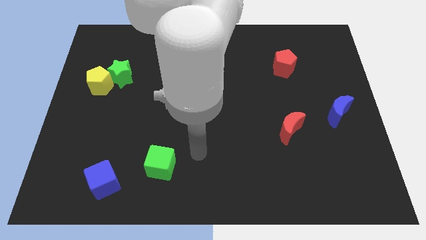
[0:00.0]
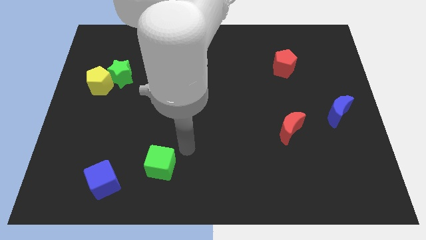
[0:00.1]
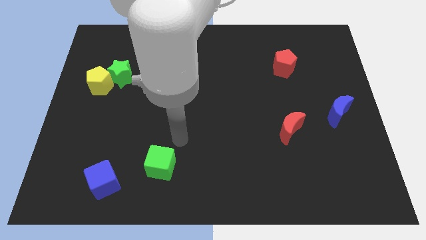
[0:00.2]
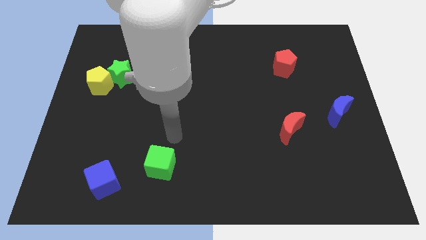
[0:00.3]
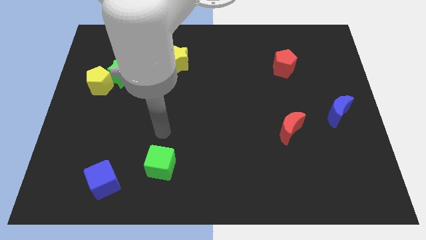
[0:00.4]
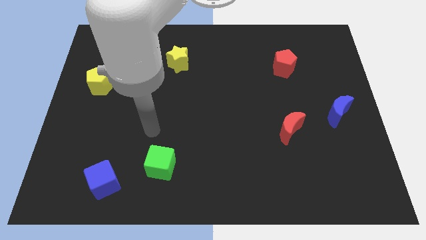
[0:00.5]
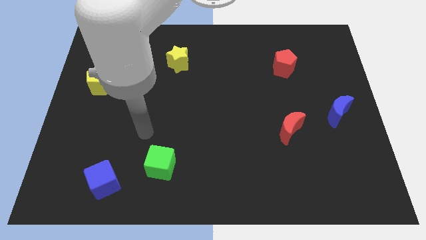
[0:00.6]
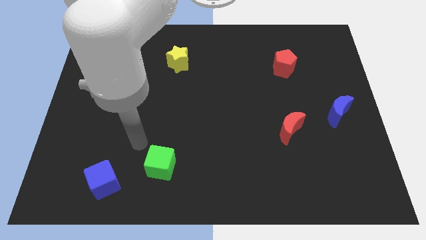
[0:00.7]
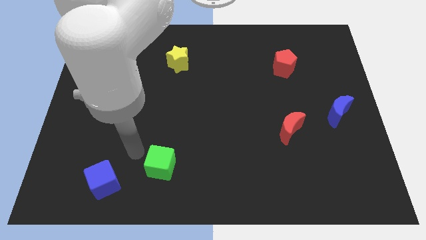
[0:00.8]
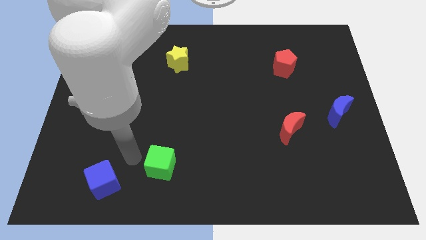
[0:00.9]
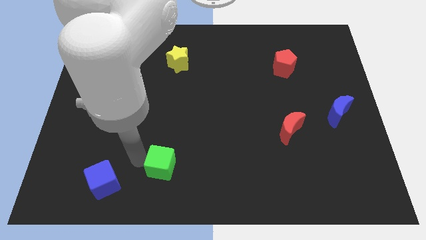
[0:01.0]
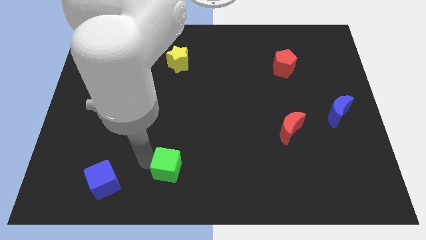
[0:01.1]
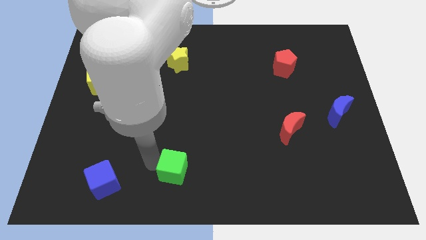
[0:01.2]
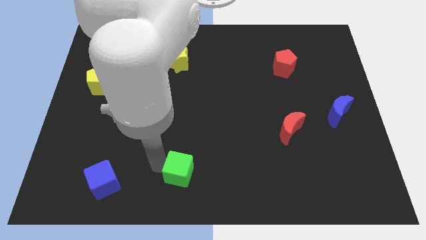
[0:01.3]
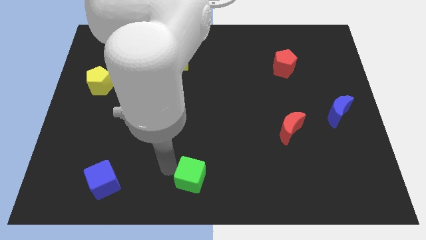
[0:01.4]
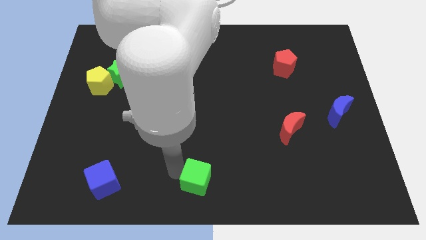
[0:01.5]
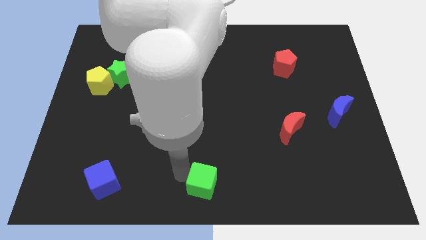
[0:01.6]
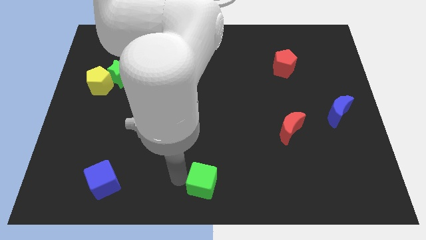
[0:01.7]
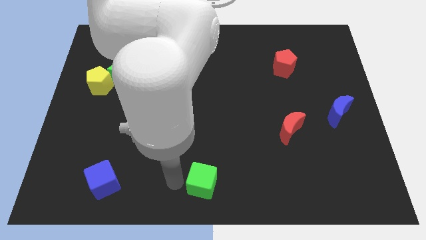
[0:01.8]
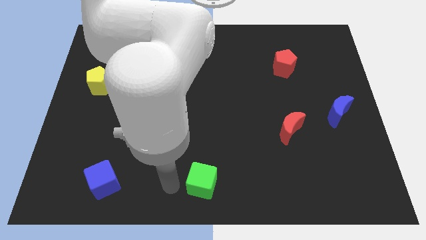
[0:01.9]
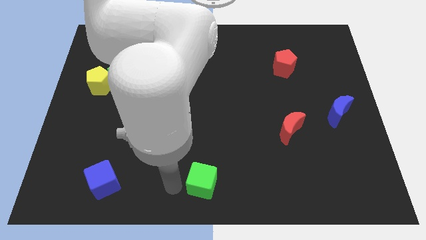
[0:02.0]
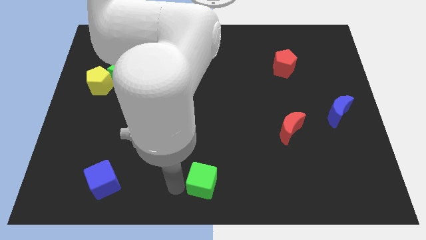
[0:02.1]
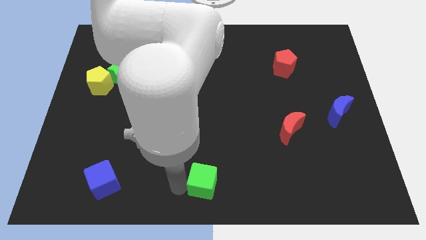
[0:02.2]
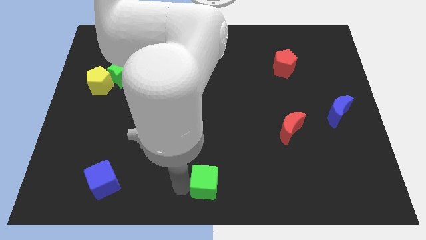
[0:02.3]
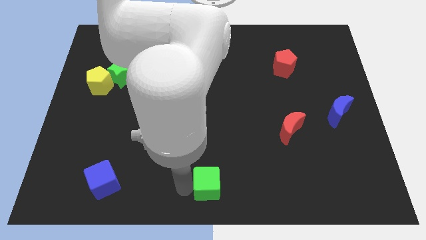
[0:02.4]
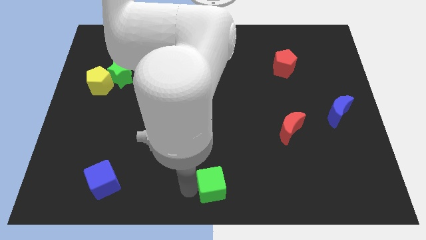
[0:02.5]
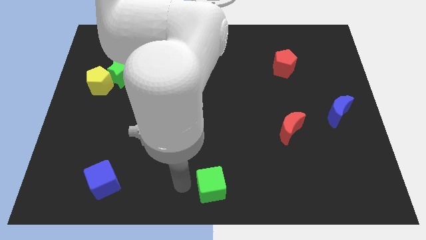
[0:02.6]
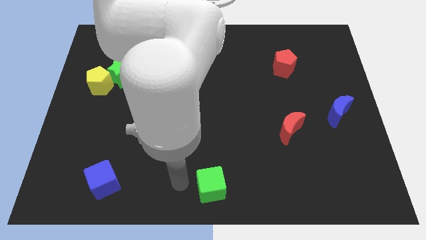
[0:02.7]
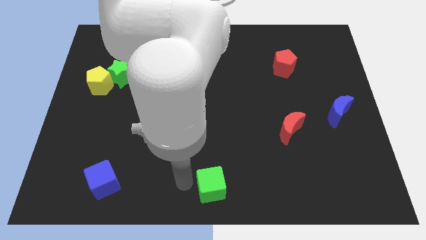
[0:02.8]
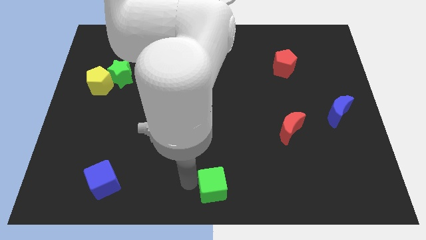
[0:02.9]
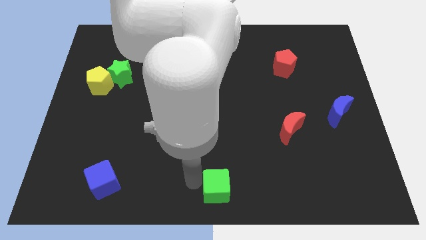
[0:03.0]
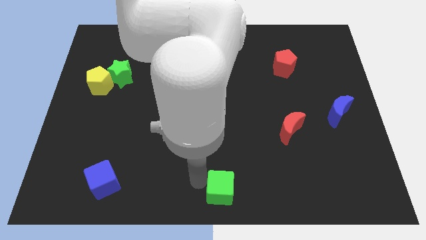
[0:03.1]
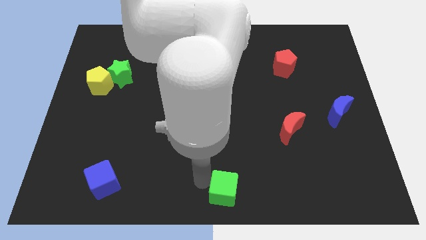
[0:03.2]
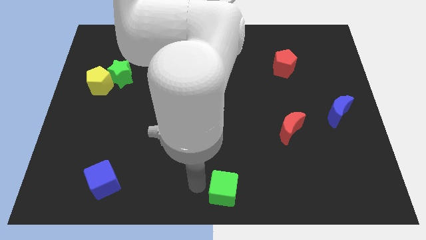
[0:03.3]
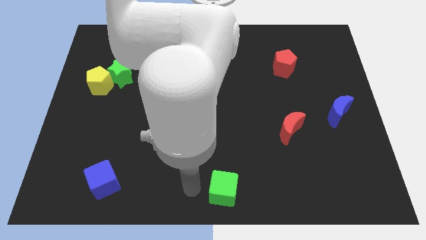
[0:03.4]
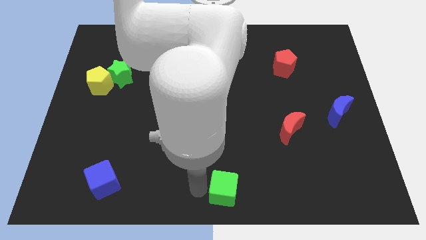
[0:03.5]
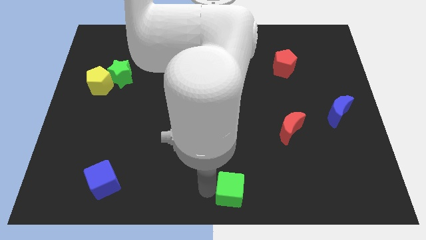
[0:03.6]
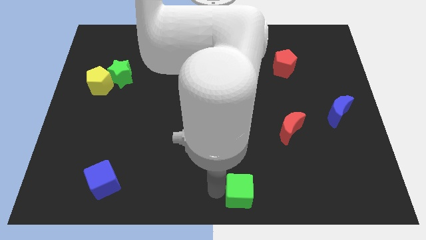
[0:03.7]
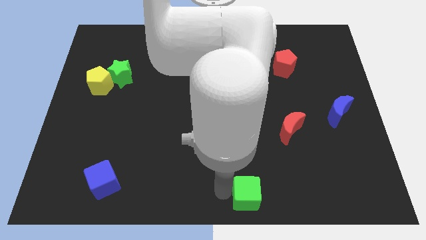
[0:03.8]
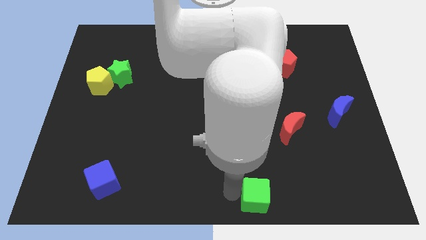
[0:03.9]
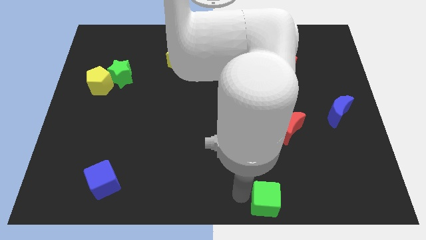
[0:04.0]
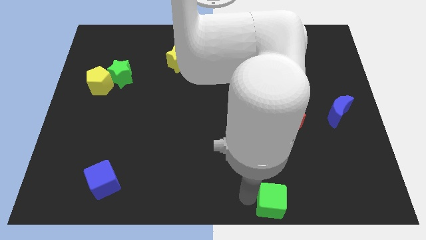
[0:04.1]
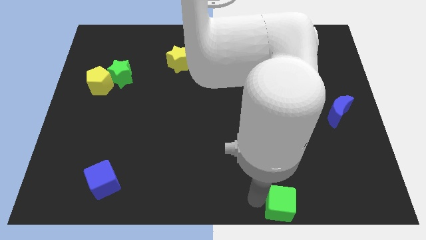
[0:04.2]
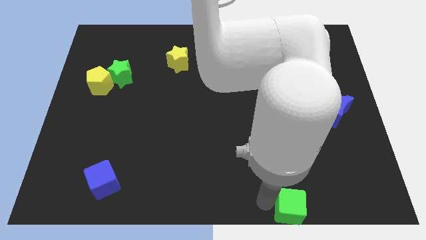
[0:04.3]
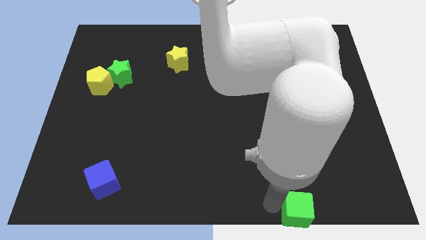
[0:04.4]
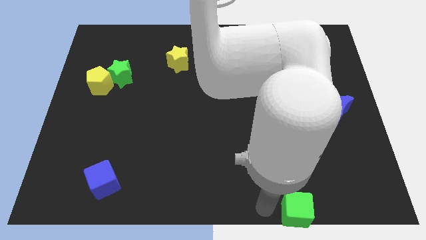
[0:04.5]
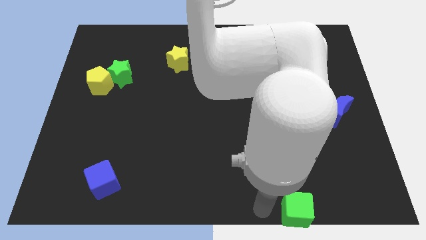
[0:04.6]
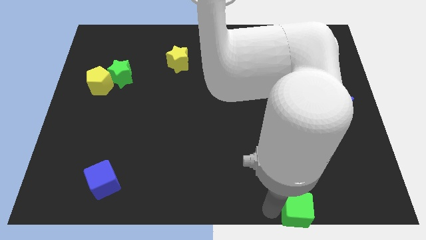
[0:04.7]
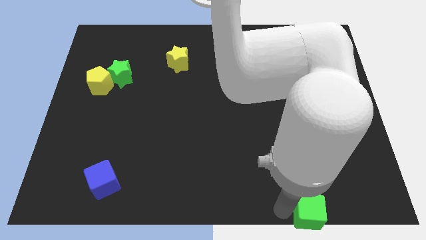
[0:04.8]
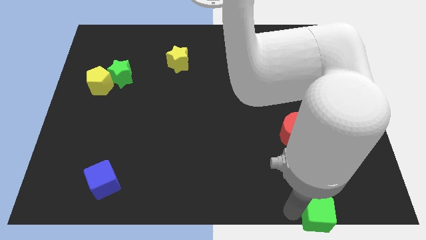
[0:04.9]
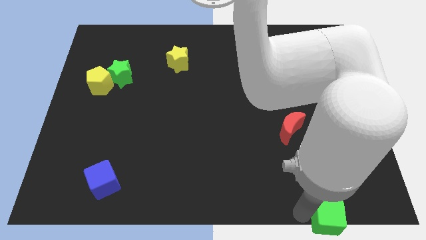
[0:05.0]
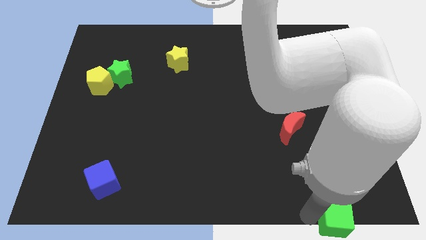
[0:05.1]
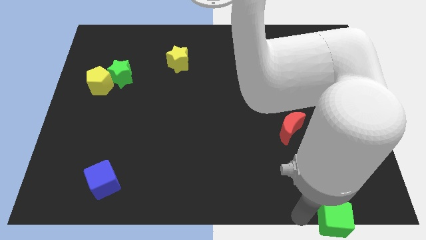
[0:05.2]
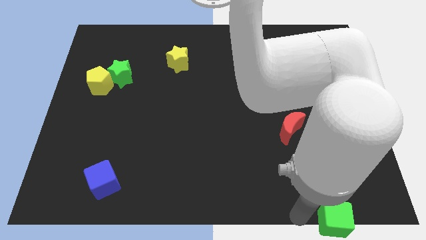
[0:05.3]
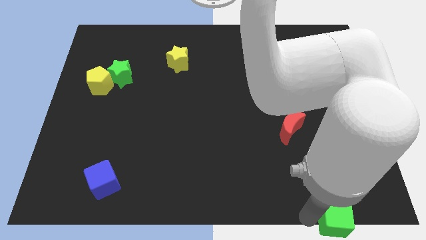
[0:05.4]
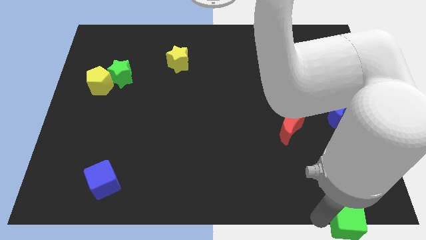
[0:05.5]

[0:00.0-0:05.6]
move the green cube to the bottom right

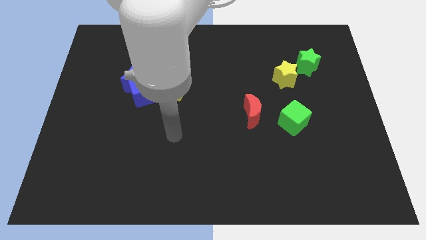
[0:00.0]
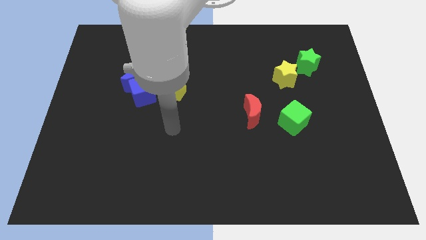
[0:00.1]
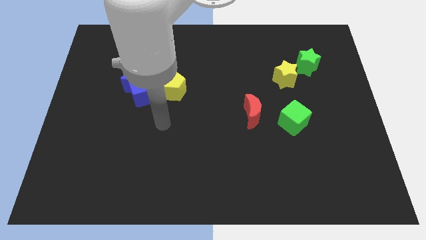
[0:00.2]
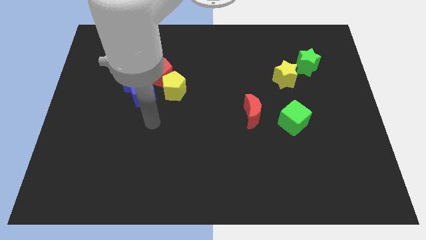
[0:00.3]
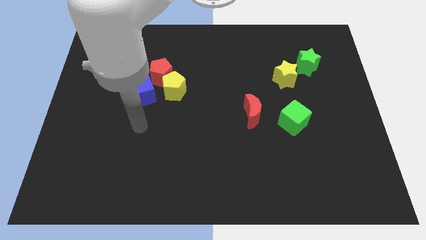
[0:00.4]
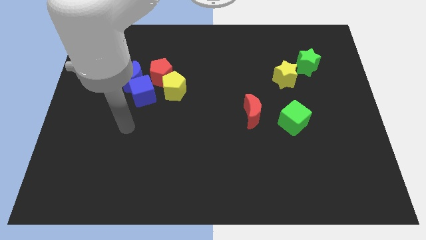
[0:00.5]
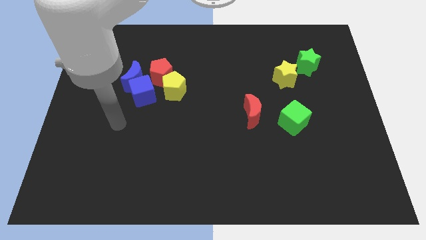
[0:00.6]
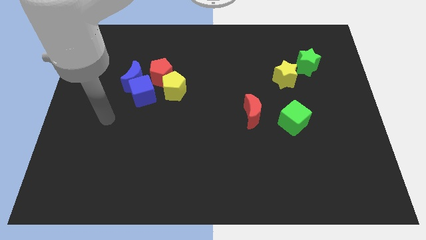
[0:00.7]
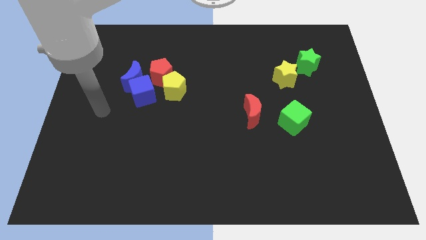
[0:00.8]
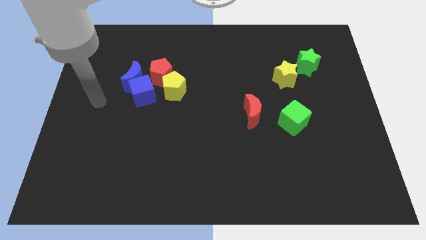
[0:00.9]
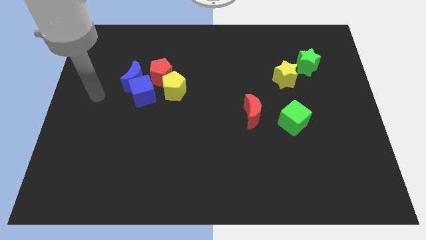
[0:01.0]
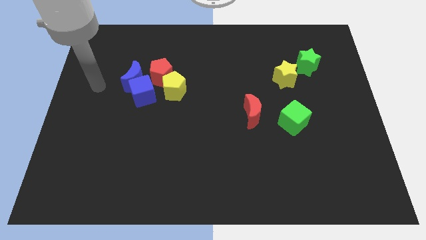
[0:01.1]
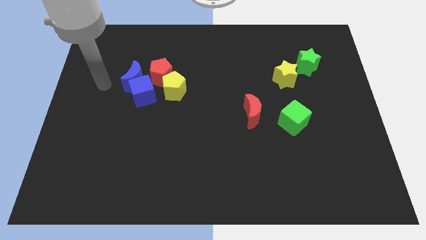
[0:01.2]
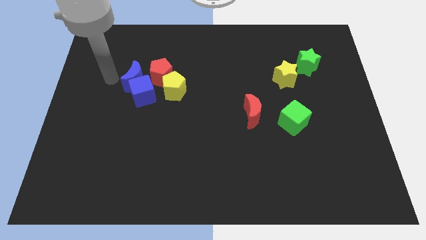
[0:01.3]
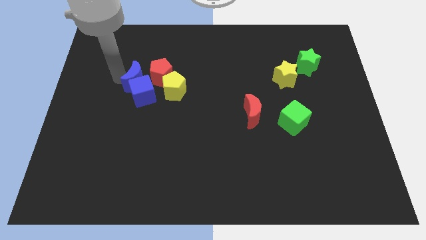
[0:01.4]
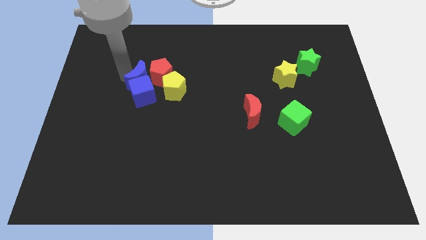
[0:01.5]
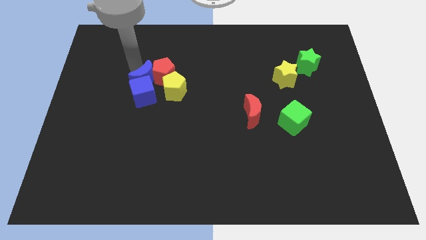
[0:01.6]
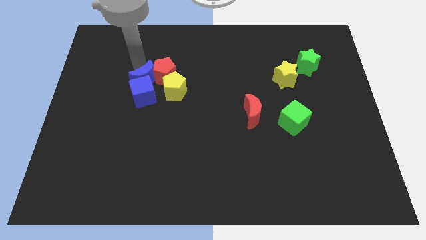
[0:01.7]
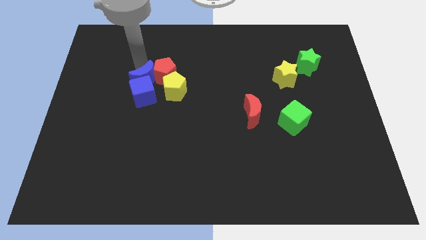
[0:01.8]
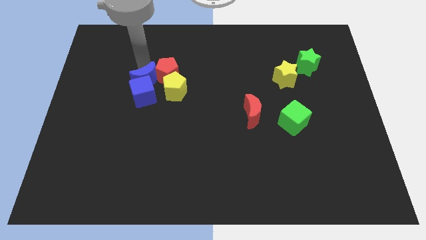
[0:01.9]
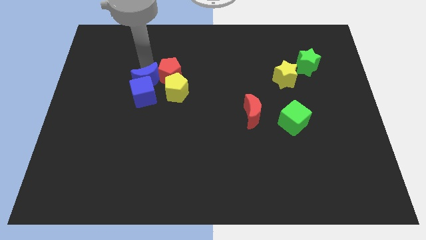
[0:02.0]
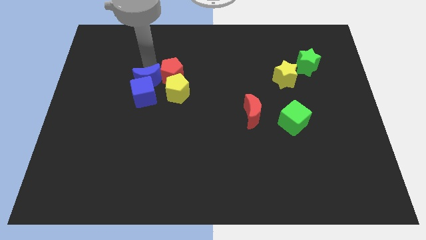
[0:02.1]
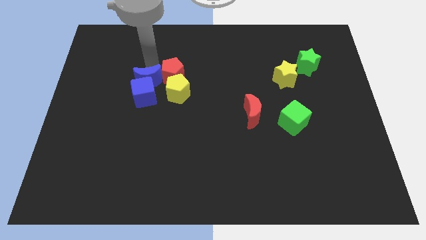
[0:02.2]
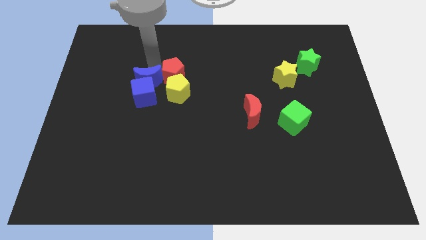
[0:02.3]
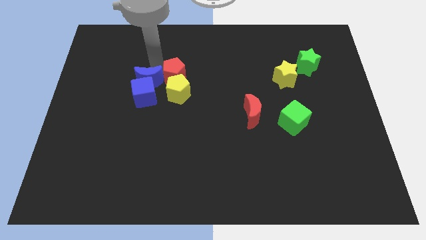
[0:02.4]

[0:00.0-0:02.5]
slide the red pentagon to the middle of the board
